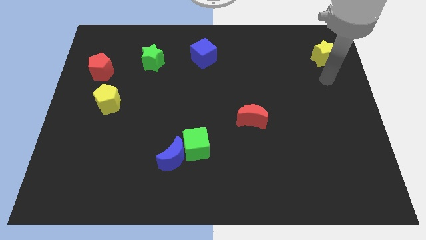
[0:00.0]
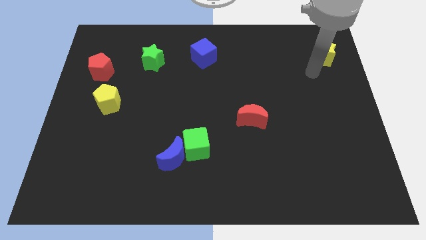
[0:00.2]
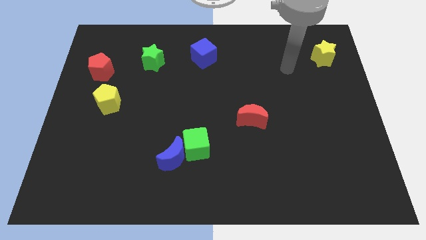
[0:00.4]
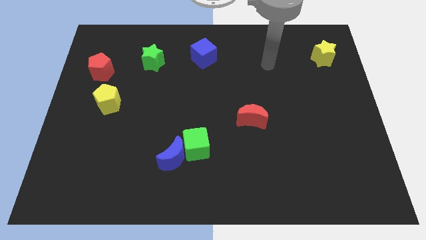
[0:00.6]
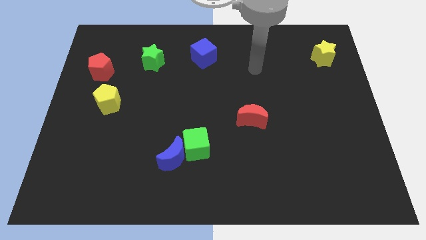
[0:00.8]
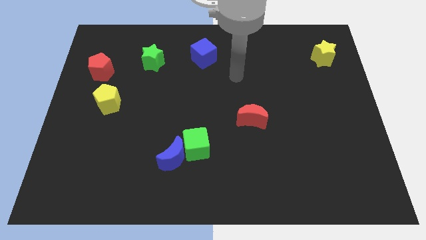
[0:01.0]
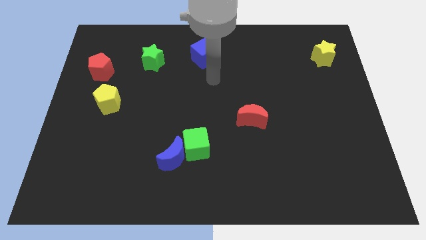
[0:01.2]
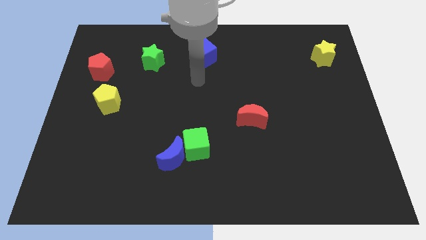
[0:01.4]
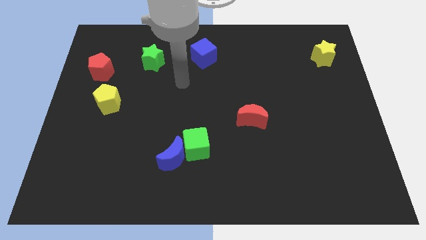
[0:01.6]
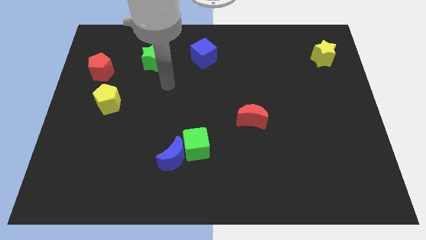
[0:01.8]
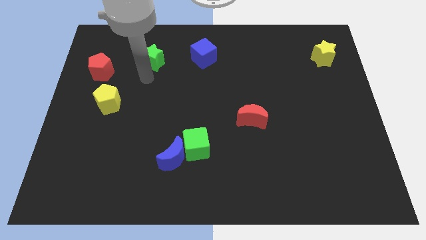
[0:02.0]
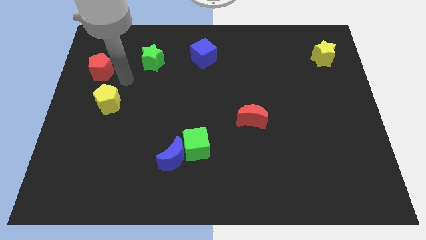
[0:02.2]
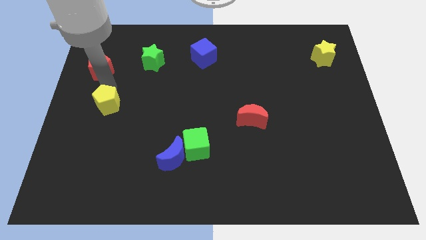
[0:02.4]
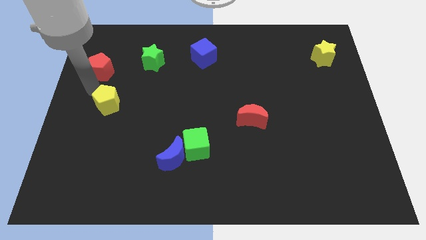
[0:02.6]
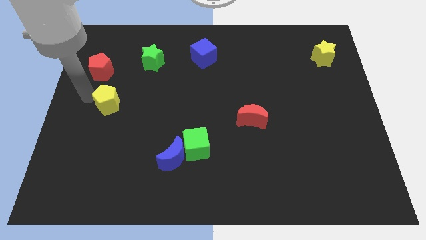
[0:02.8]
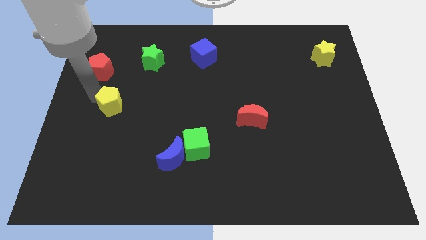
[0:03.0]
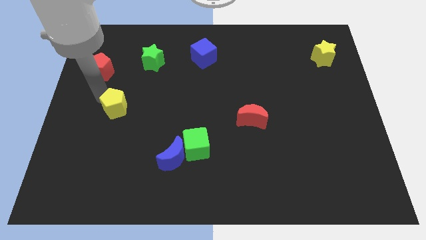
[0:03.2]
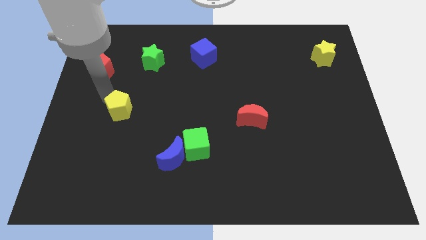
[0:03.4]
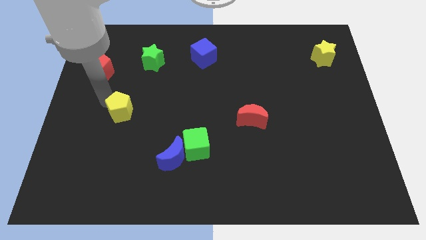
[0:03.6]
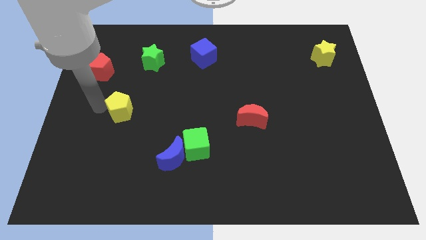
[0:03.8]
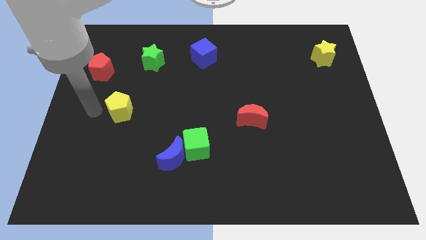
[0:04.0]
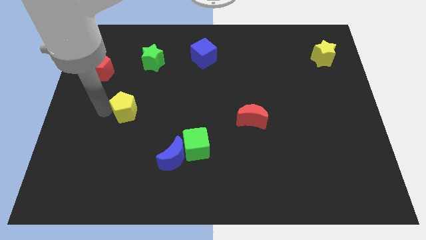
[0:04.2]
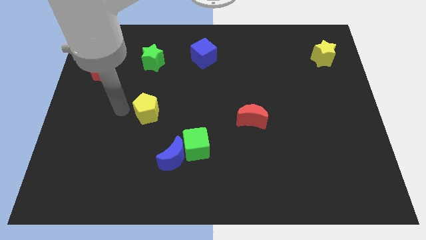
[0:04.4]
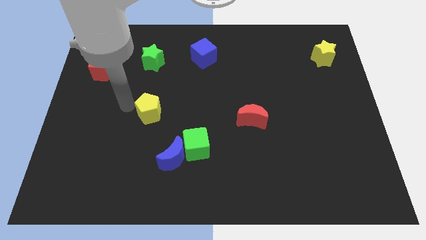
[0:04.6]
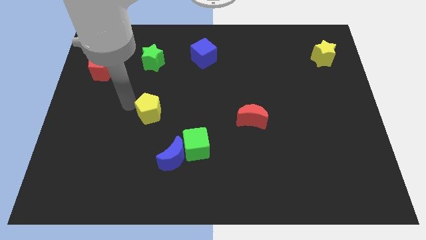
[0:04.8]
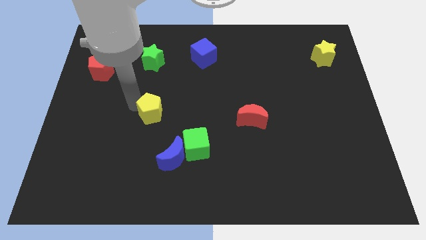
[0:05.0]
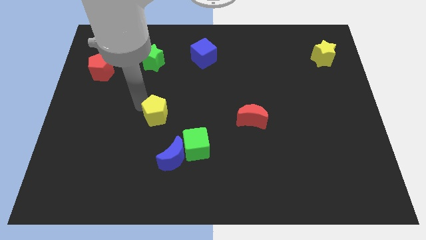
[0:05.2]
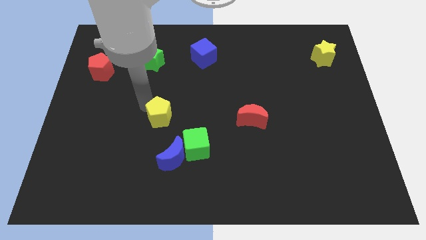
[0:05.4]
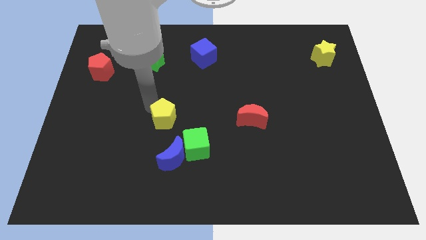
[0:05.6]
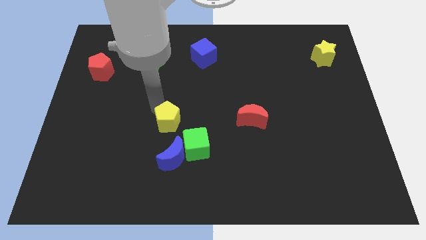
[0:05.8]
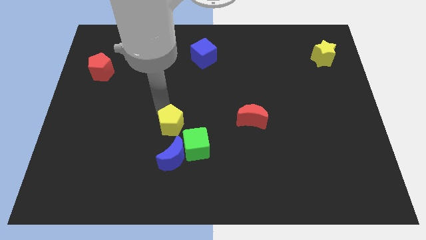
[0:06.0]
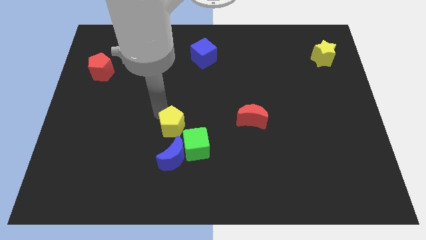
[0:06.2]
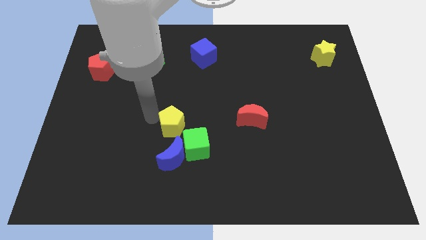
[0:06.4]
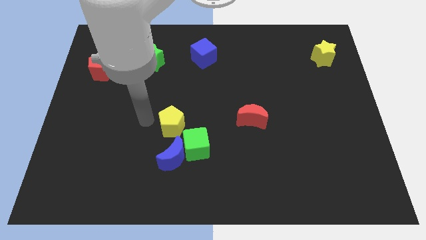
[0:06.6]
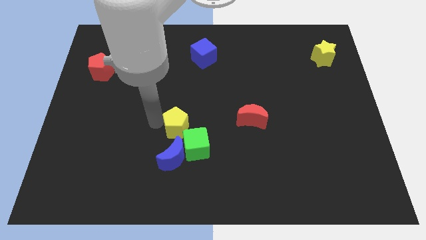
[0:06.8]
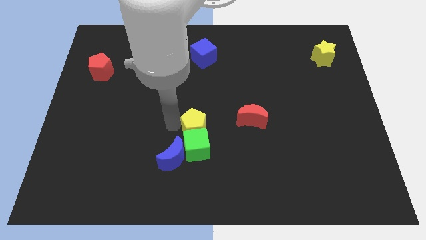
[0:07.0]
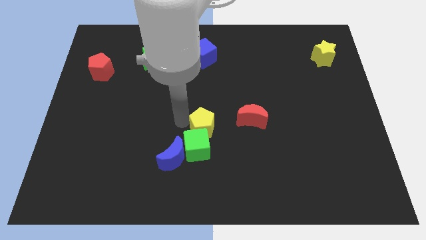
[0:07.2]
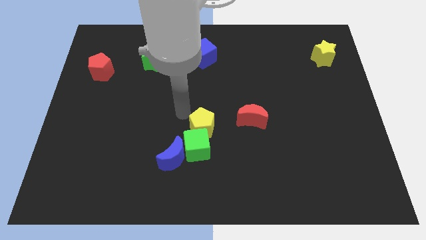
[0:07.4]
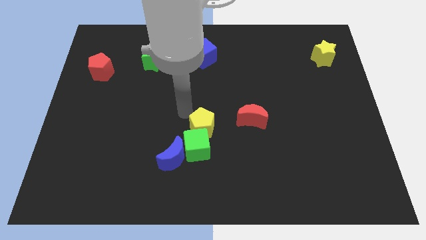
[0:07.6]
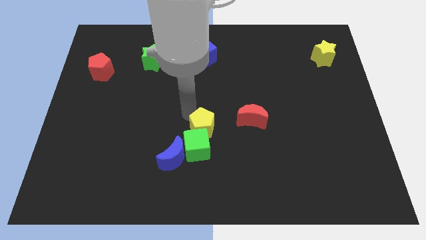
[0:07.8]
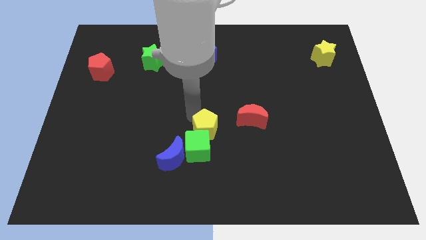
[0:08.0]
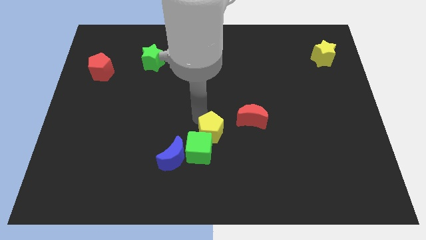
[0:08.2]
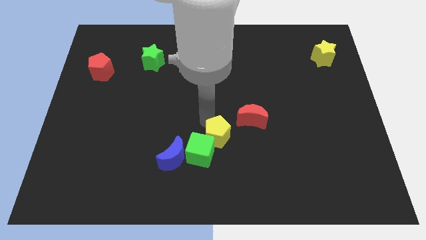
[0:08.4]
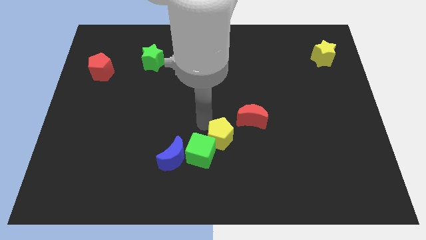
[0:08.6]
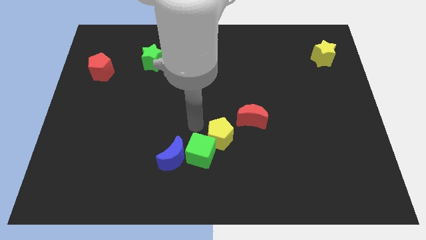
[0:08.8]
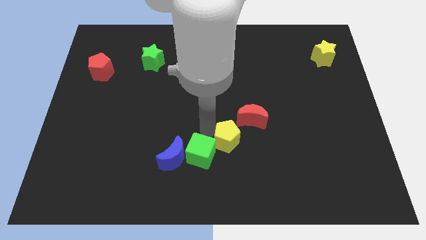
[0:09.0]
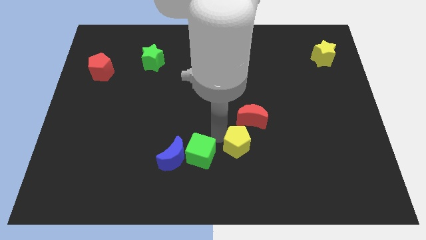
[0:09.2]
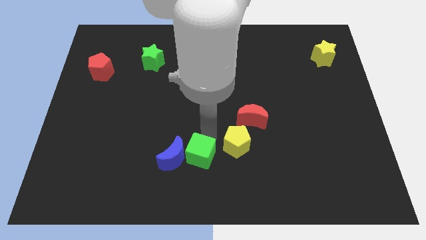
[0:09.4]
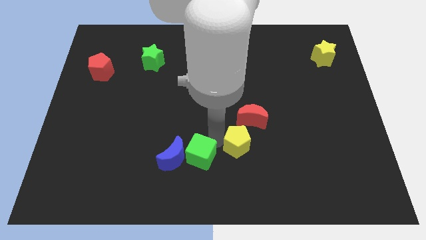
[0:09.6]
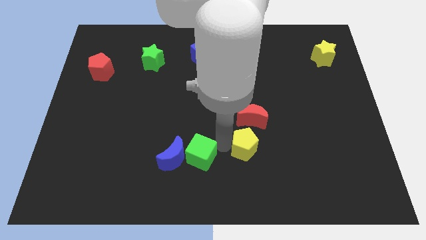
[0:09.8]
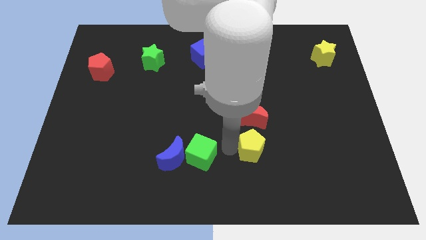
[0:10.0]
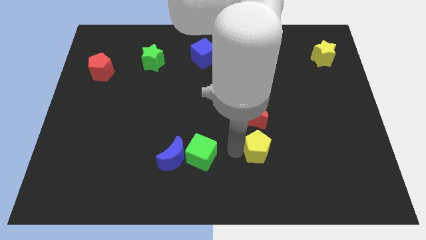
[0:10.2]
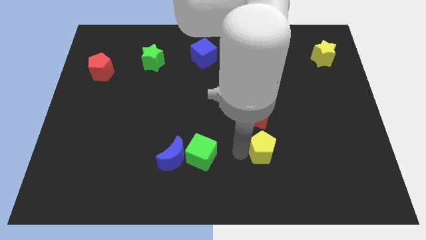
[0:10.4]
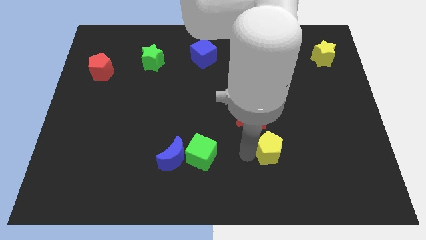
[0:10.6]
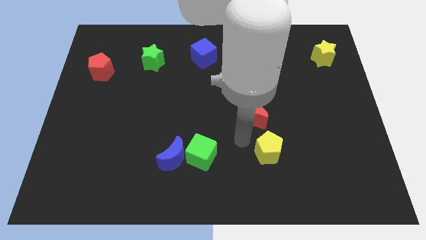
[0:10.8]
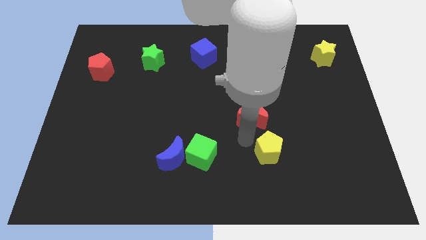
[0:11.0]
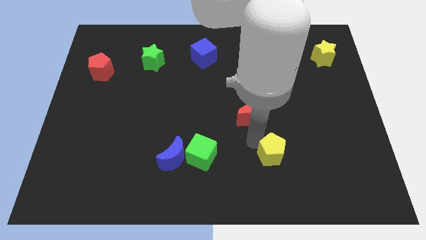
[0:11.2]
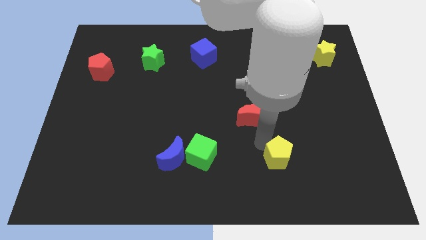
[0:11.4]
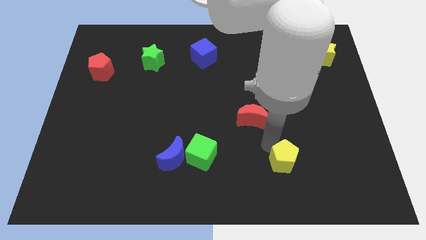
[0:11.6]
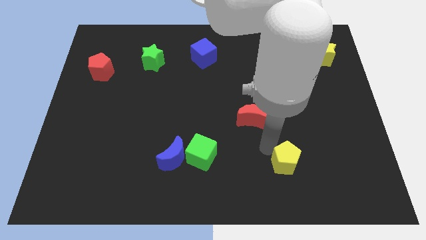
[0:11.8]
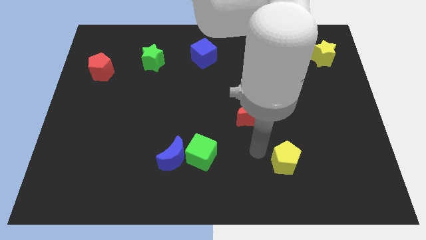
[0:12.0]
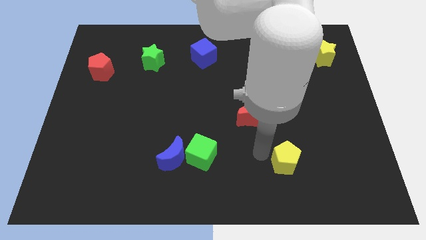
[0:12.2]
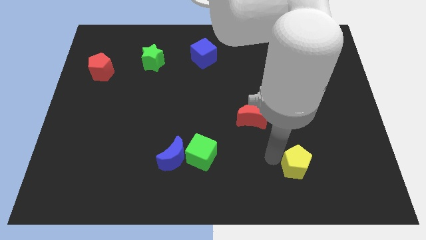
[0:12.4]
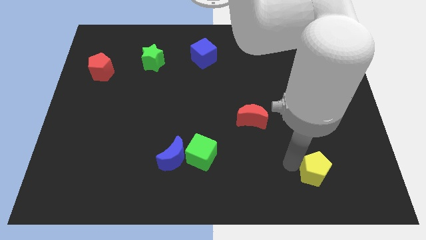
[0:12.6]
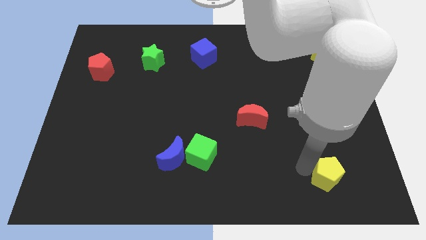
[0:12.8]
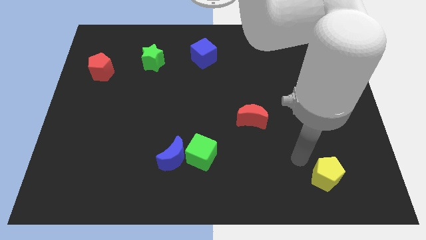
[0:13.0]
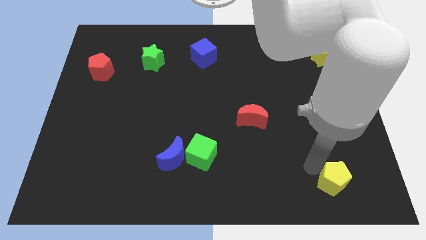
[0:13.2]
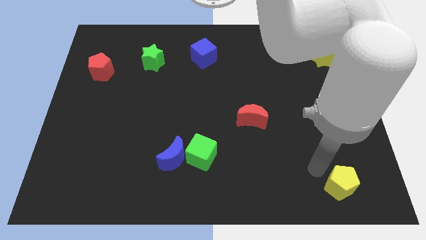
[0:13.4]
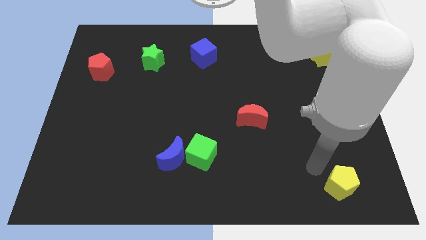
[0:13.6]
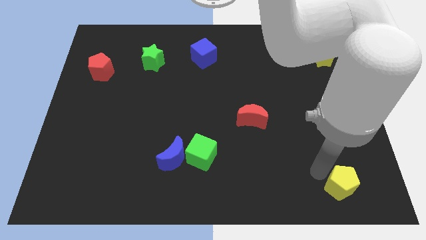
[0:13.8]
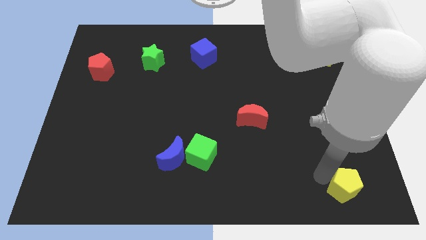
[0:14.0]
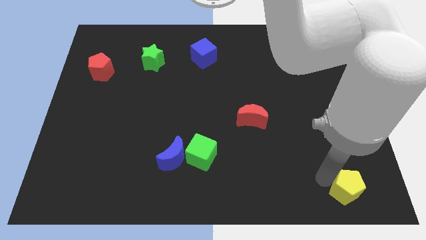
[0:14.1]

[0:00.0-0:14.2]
push the yellow pentagon to the lower right corner
